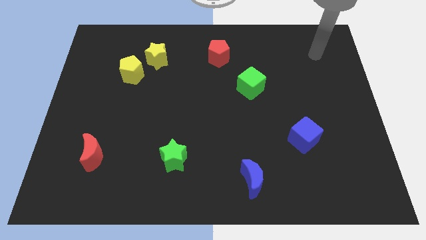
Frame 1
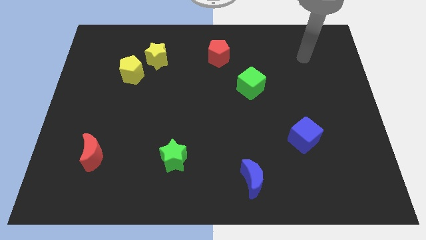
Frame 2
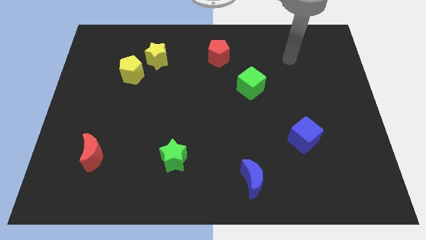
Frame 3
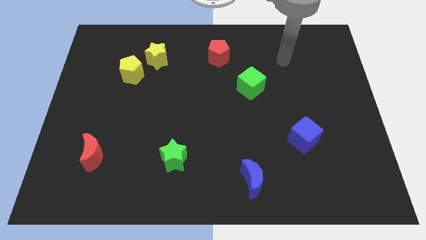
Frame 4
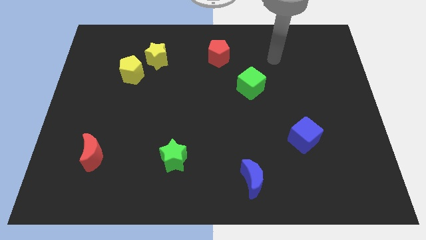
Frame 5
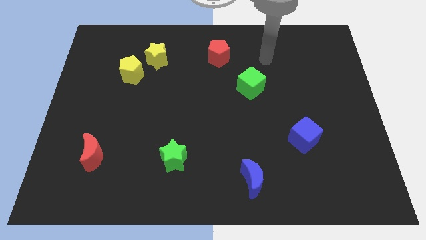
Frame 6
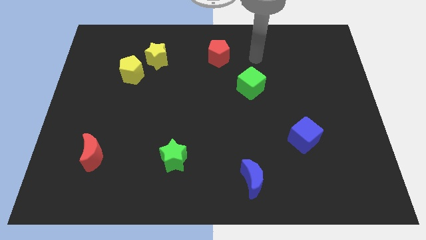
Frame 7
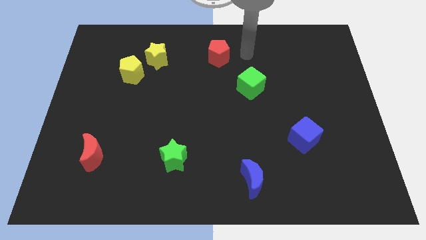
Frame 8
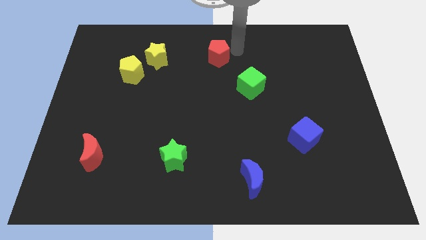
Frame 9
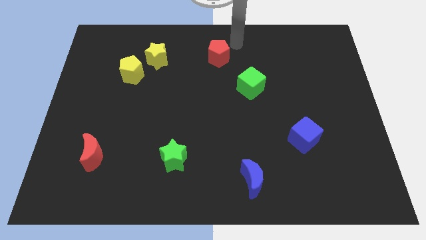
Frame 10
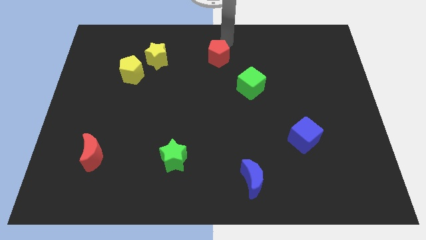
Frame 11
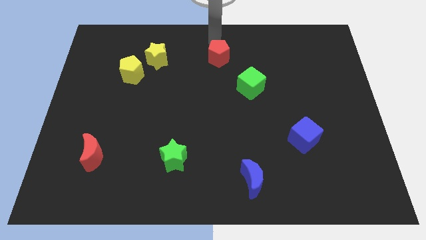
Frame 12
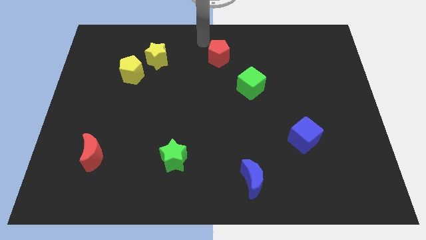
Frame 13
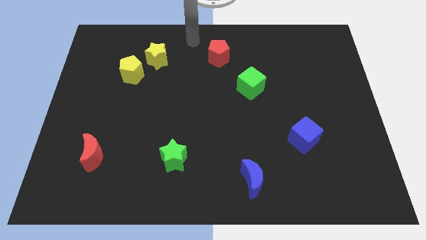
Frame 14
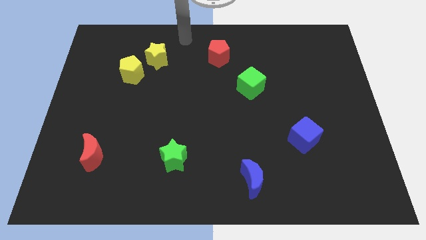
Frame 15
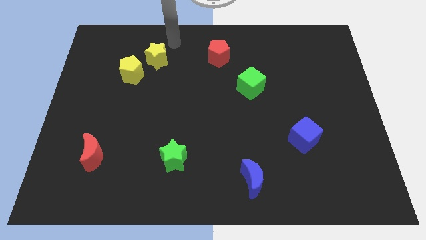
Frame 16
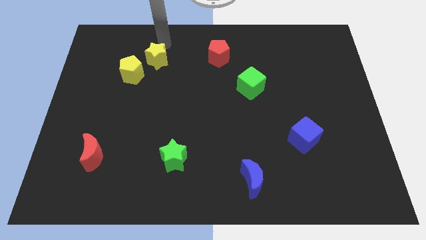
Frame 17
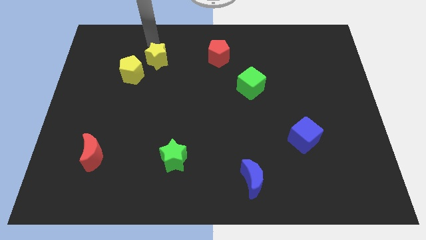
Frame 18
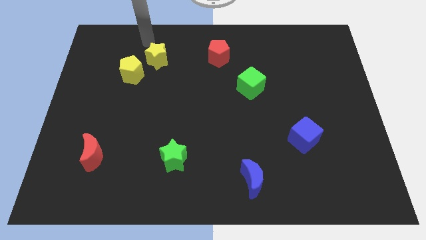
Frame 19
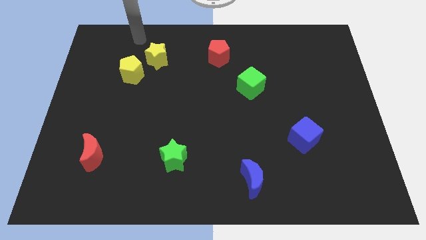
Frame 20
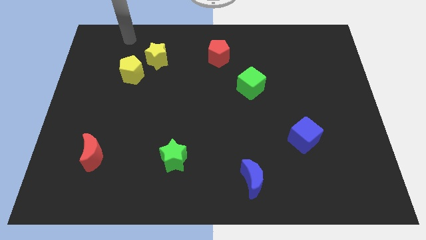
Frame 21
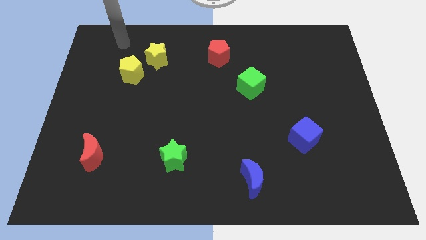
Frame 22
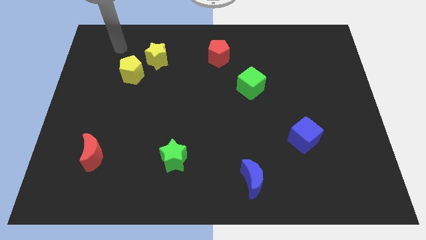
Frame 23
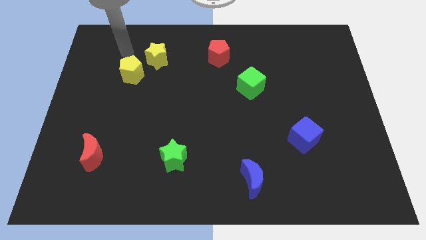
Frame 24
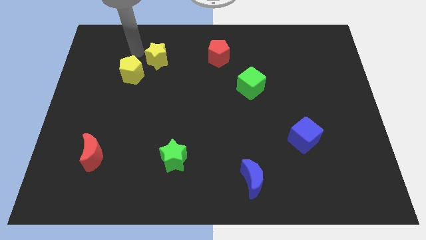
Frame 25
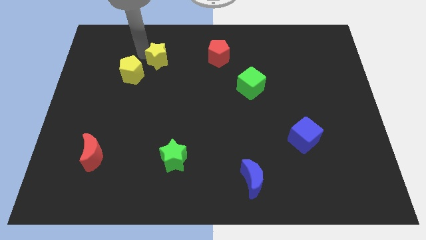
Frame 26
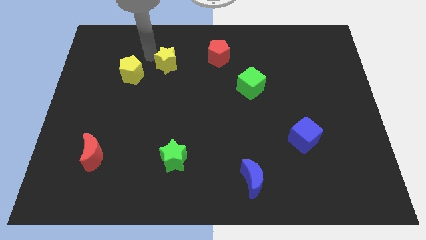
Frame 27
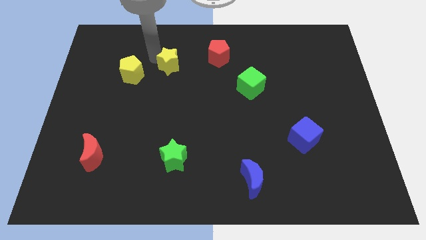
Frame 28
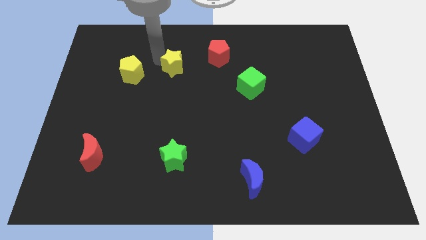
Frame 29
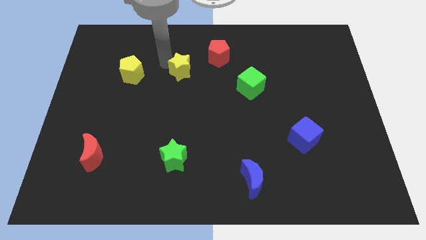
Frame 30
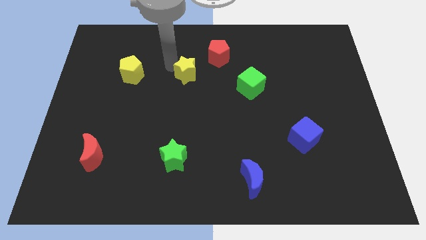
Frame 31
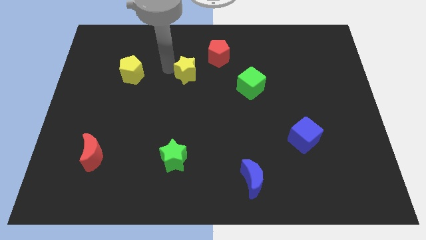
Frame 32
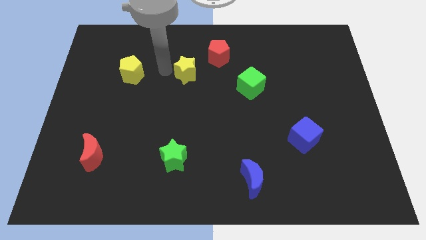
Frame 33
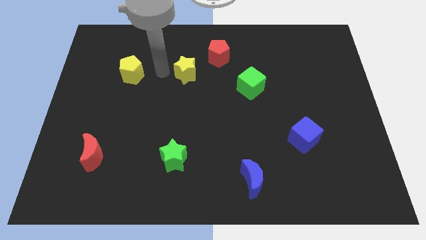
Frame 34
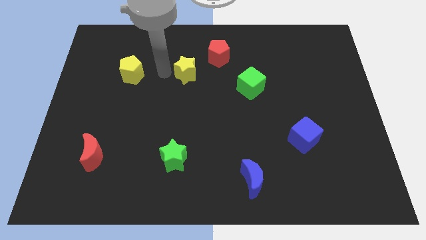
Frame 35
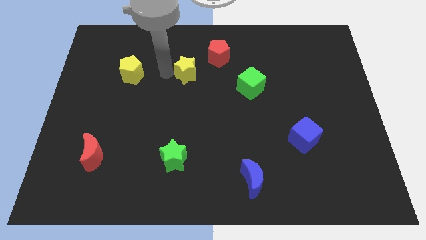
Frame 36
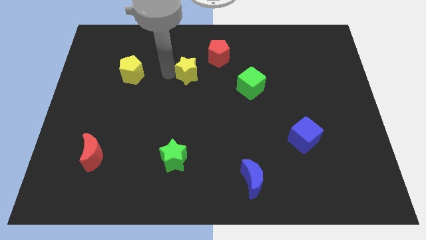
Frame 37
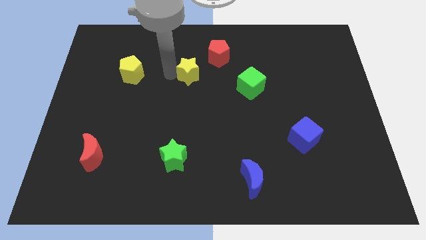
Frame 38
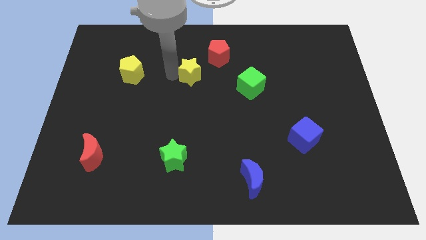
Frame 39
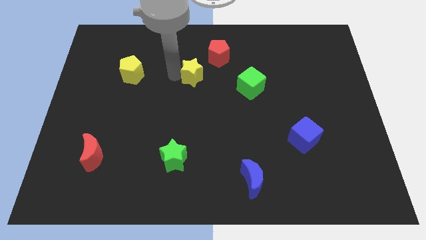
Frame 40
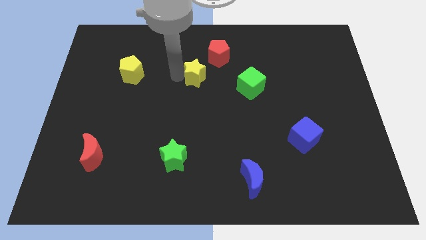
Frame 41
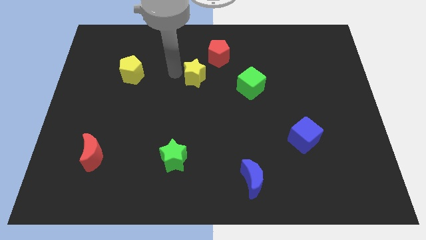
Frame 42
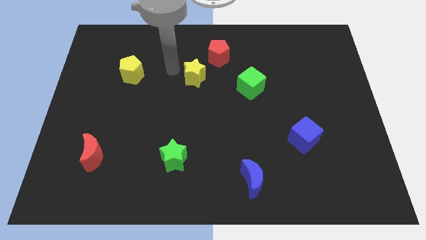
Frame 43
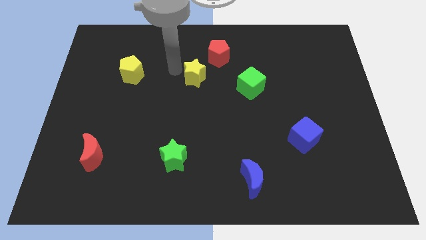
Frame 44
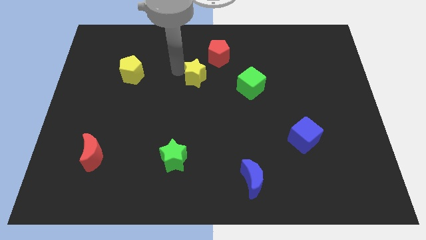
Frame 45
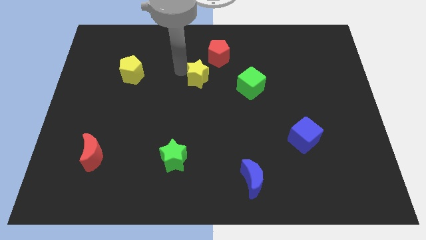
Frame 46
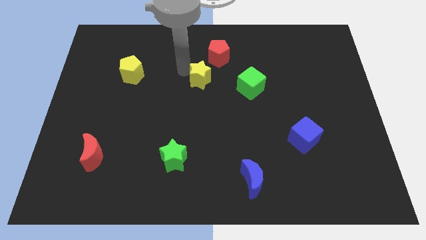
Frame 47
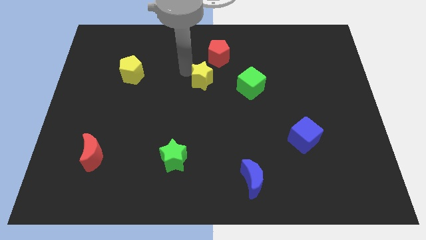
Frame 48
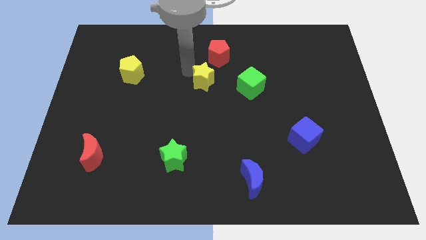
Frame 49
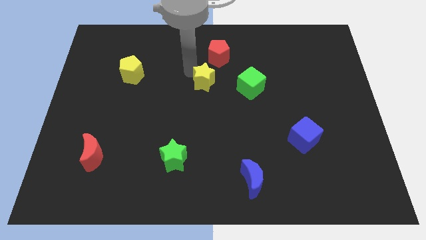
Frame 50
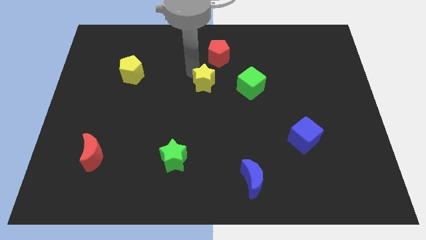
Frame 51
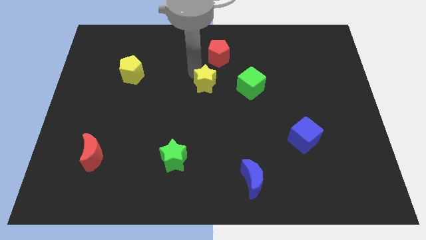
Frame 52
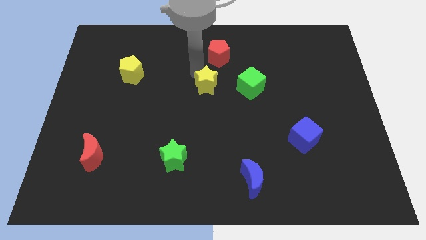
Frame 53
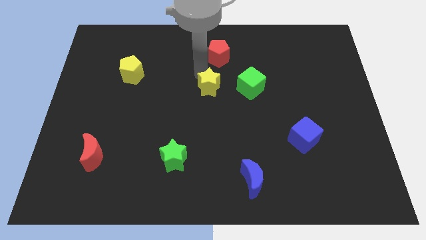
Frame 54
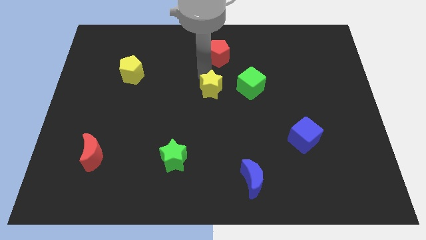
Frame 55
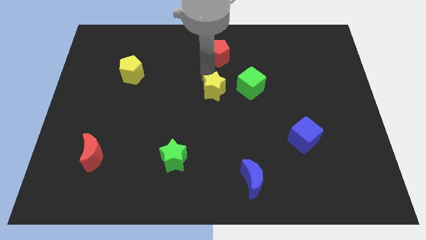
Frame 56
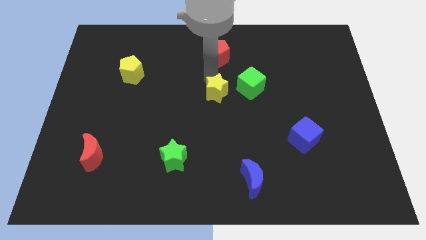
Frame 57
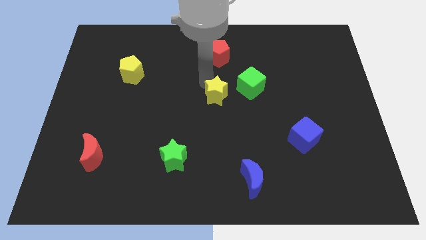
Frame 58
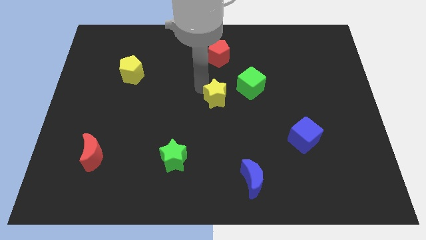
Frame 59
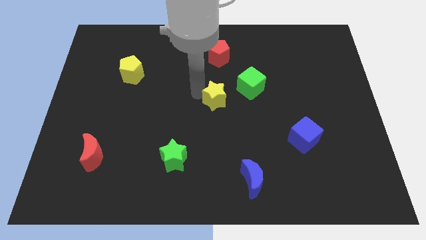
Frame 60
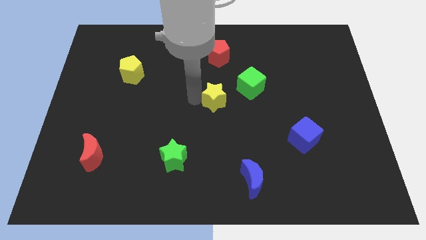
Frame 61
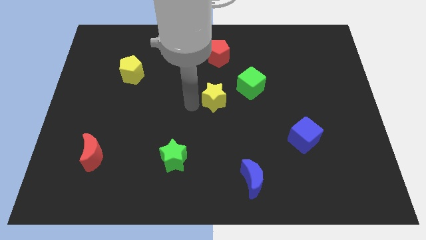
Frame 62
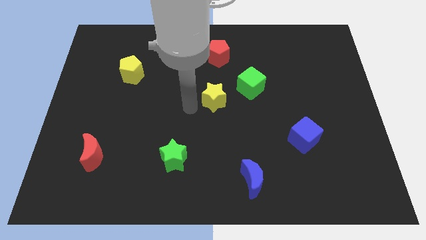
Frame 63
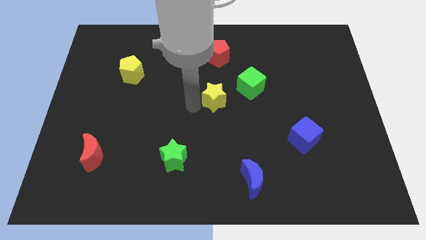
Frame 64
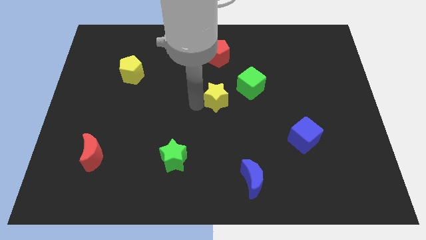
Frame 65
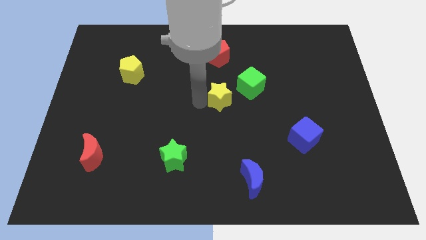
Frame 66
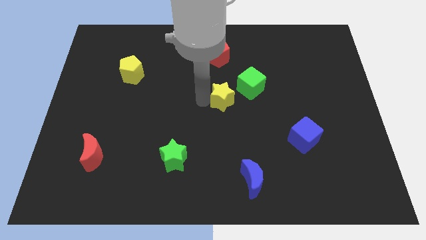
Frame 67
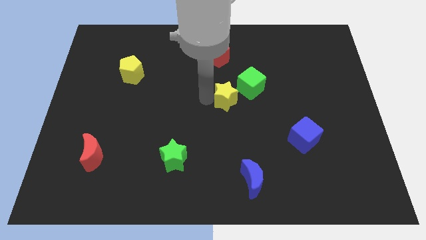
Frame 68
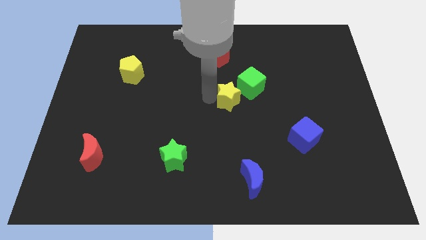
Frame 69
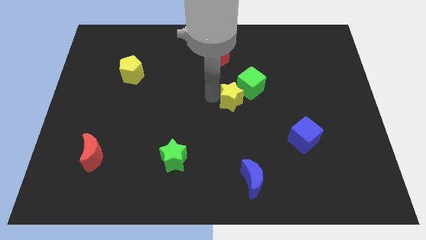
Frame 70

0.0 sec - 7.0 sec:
slide the yellow star next to the green cube

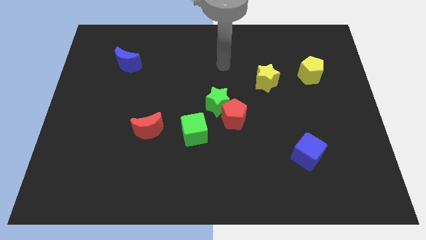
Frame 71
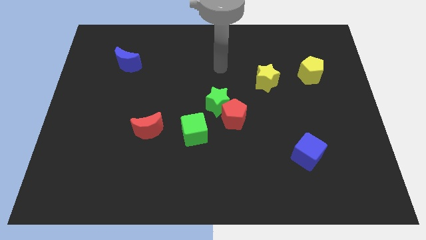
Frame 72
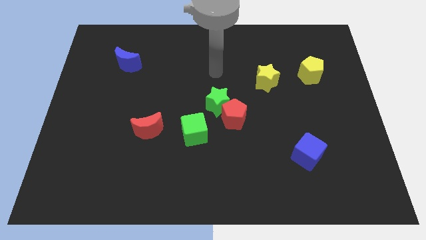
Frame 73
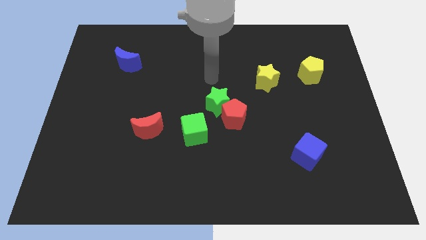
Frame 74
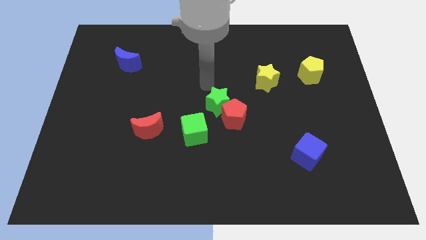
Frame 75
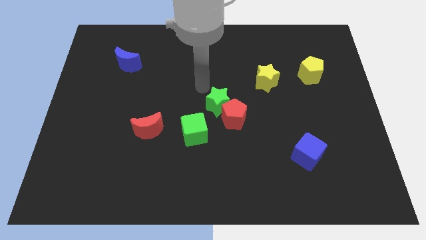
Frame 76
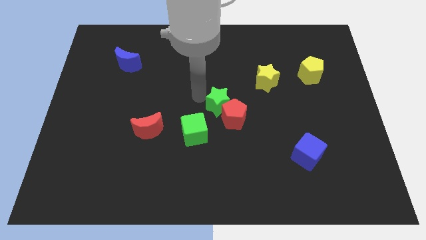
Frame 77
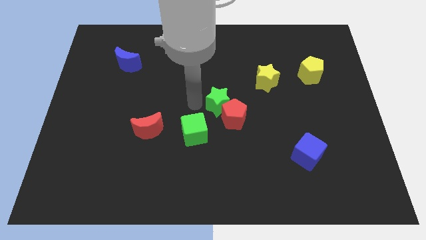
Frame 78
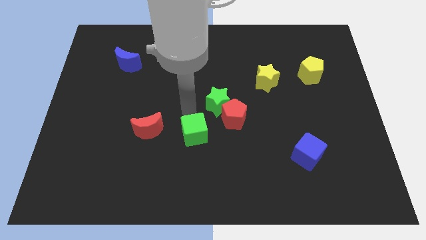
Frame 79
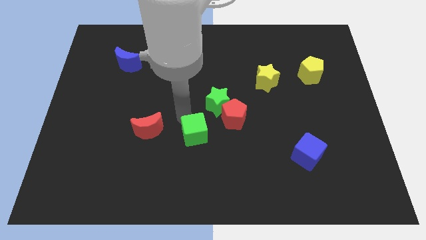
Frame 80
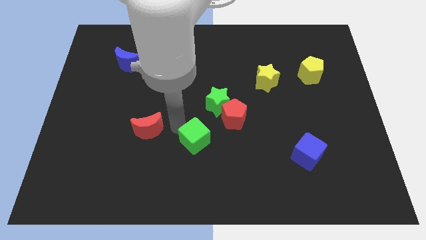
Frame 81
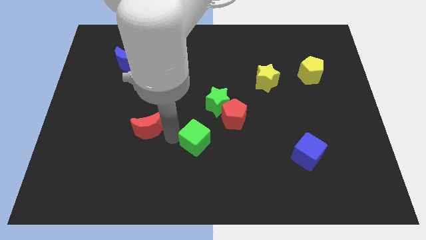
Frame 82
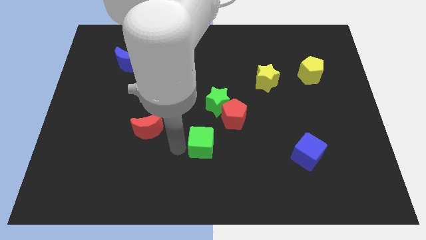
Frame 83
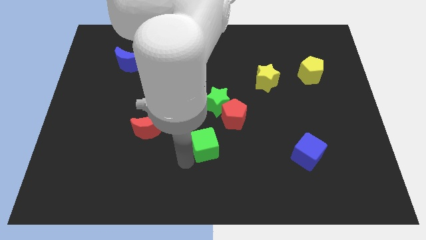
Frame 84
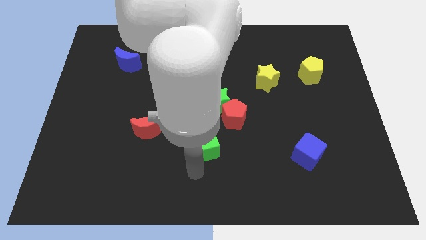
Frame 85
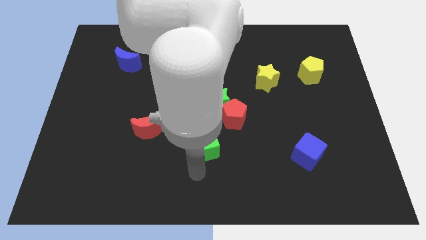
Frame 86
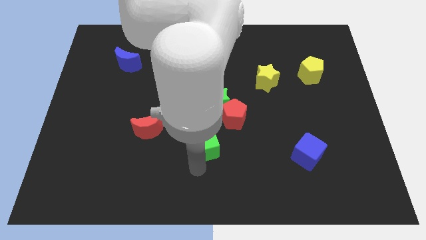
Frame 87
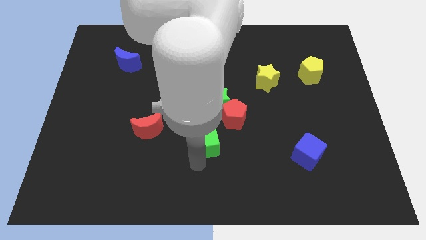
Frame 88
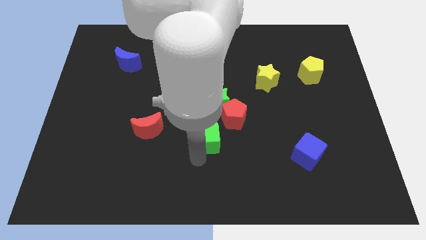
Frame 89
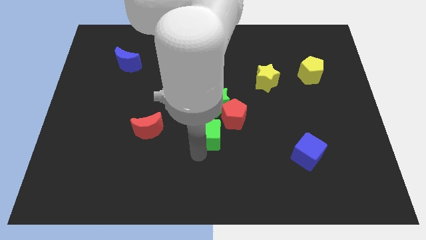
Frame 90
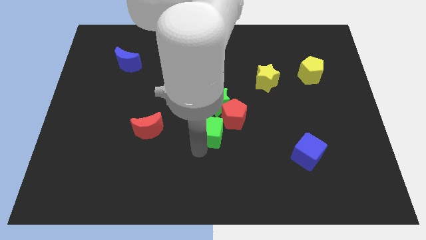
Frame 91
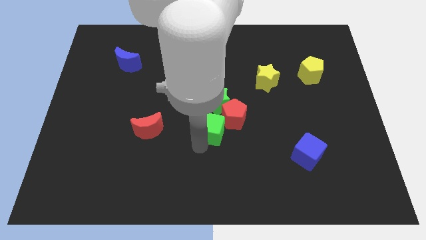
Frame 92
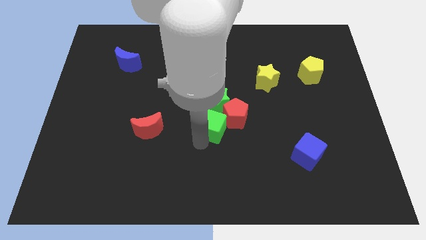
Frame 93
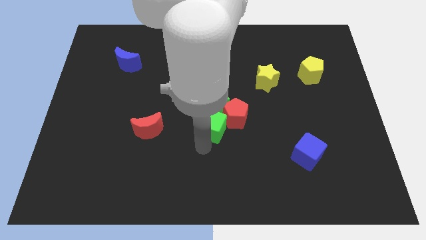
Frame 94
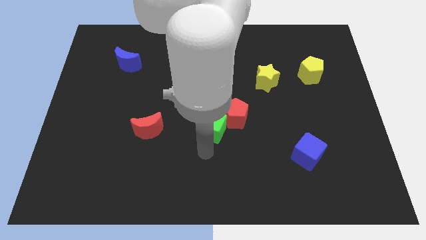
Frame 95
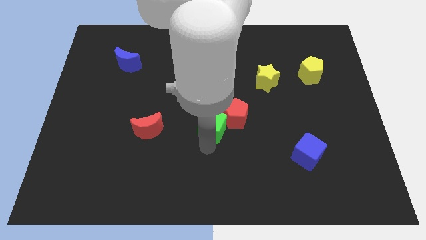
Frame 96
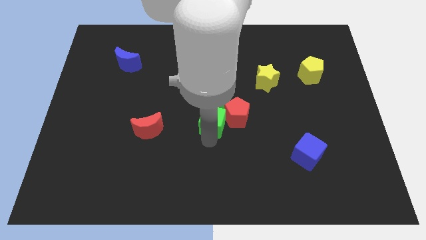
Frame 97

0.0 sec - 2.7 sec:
put the green cube next to the green star
